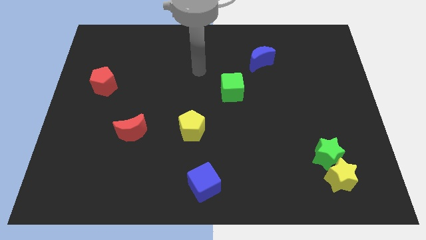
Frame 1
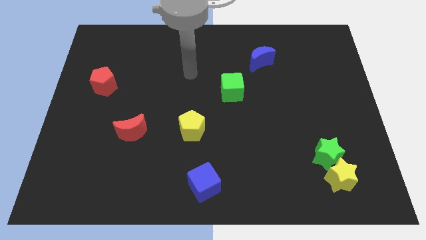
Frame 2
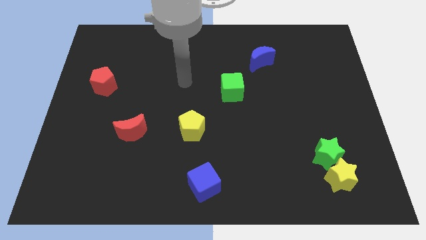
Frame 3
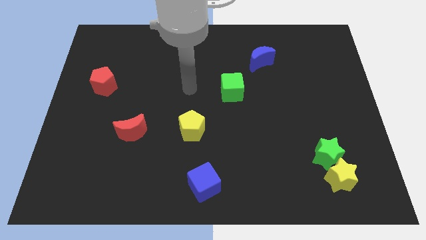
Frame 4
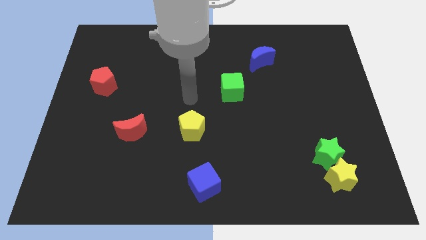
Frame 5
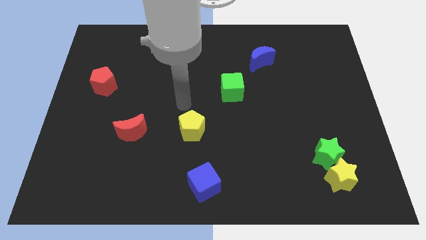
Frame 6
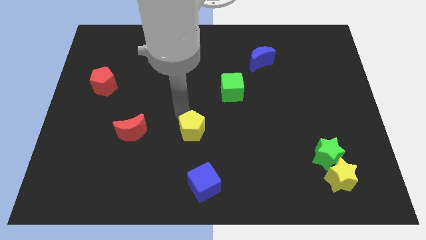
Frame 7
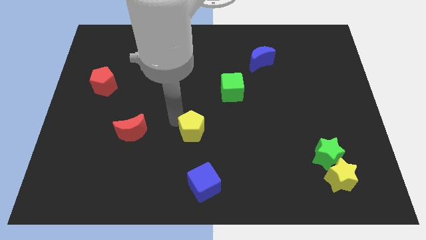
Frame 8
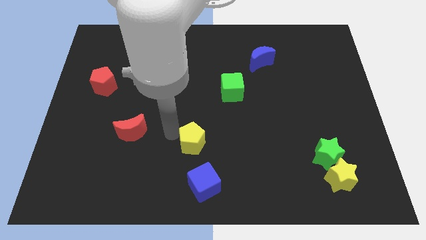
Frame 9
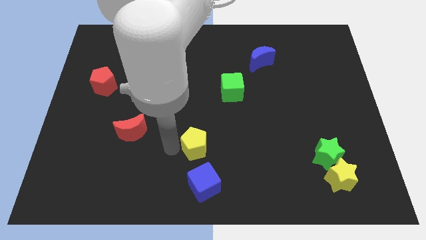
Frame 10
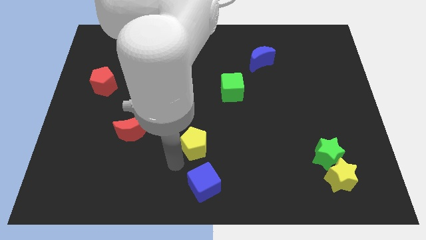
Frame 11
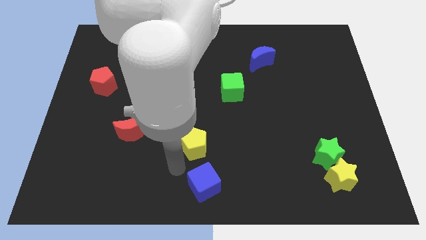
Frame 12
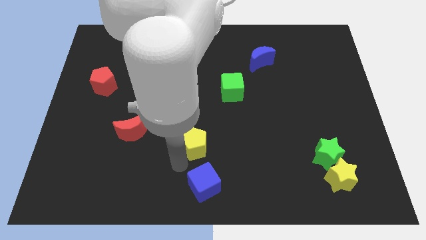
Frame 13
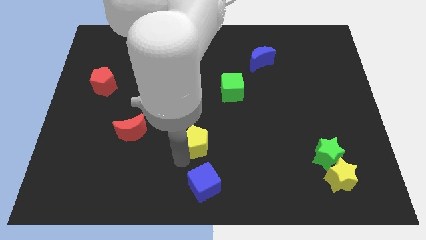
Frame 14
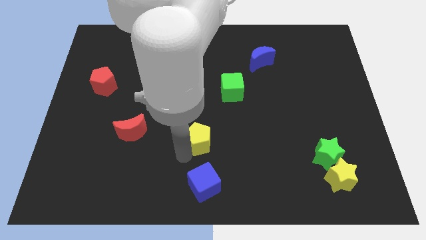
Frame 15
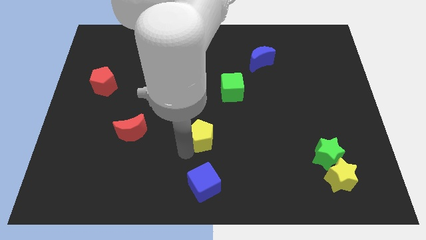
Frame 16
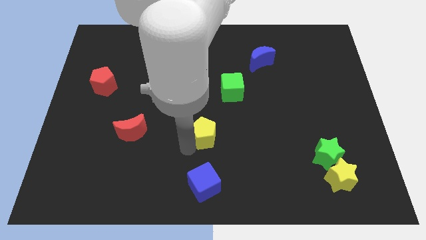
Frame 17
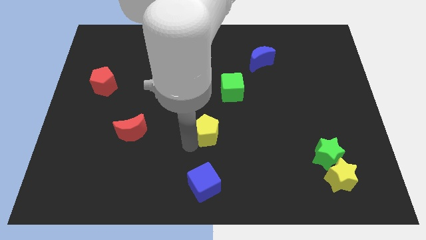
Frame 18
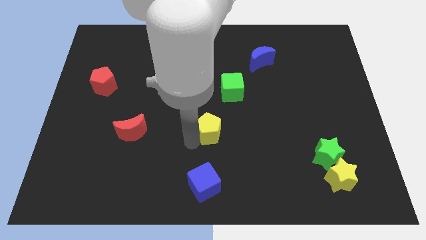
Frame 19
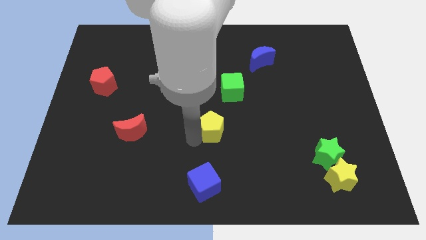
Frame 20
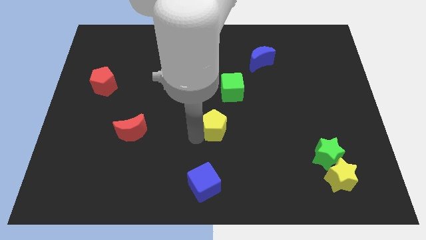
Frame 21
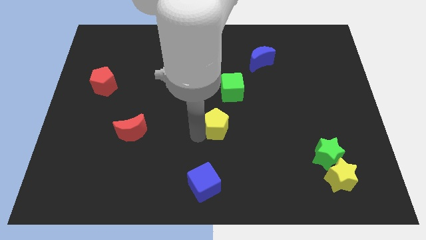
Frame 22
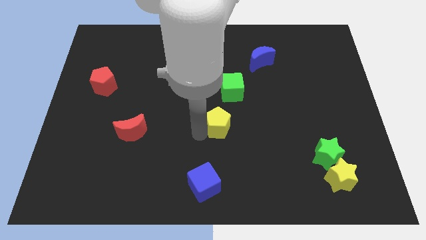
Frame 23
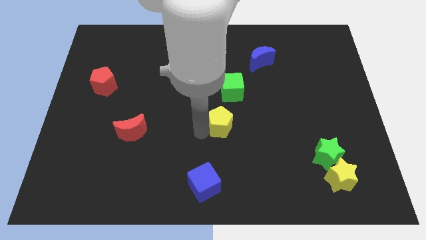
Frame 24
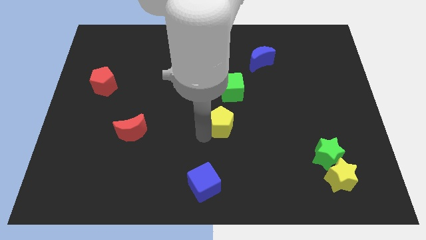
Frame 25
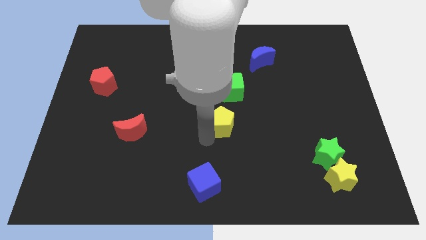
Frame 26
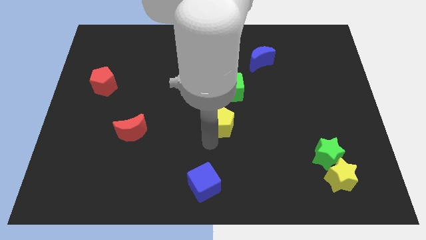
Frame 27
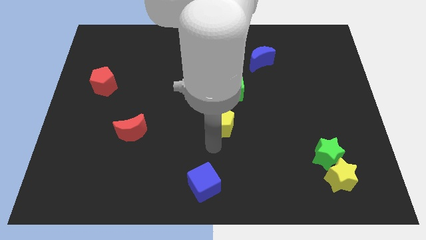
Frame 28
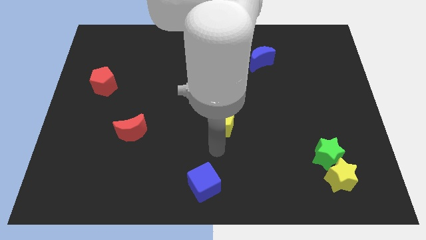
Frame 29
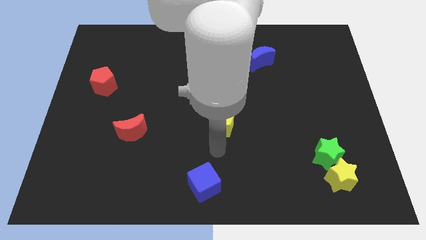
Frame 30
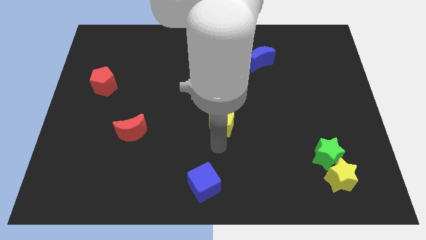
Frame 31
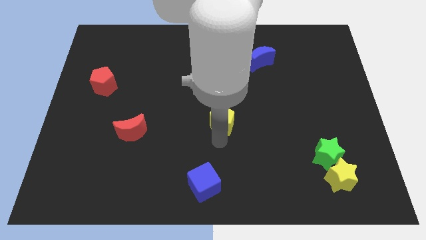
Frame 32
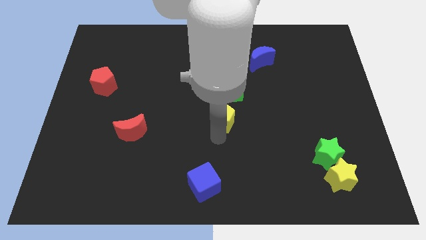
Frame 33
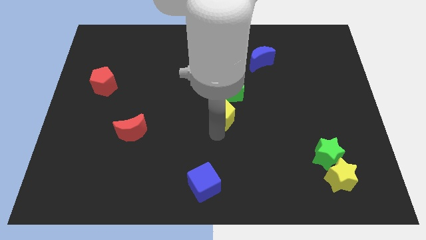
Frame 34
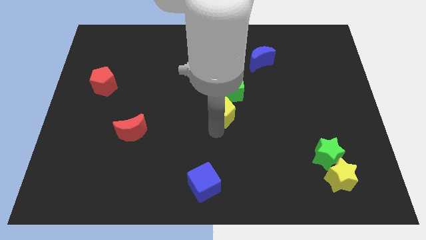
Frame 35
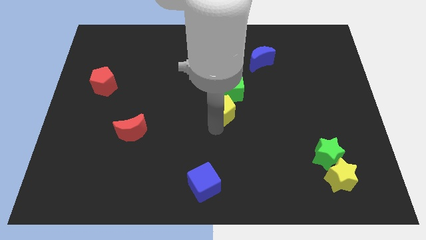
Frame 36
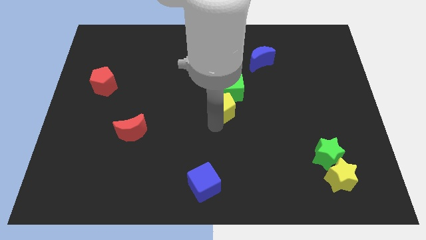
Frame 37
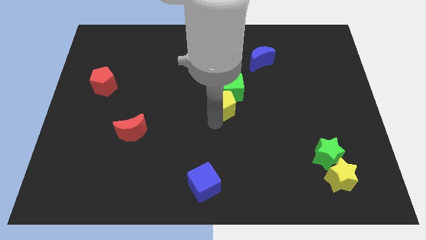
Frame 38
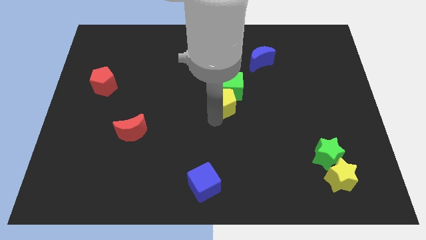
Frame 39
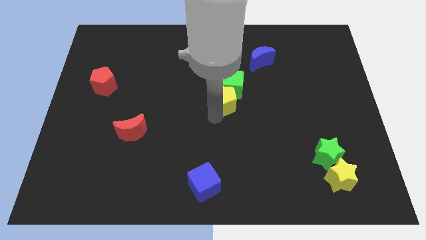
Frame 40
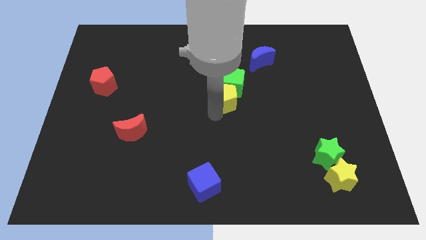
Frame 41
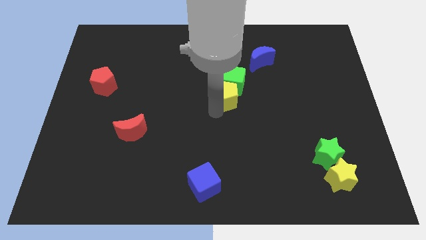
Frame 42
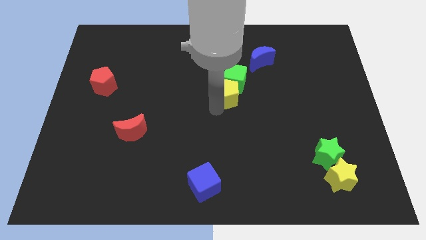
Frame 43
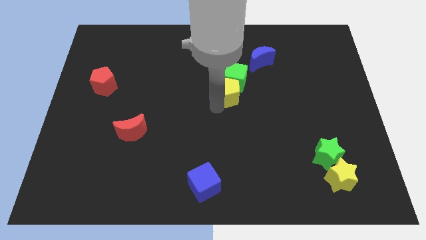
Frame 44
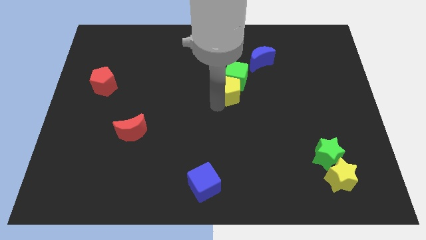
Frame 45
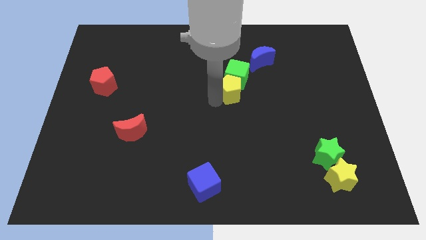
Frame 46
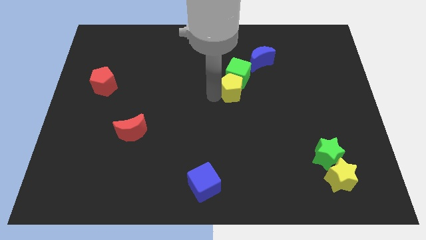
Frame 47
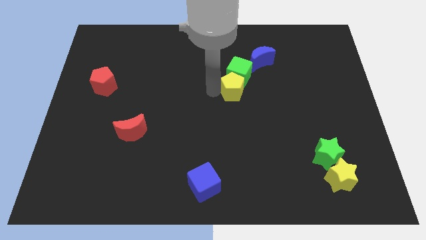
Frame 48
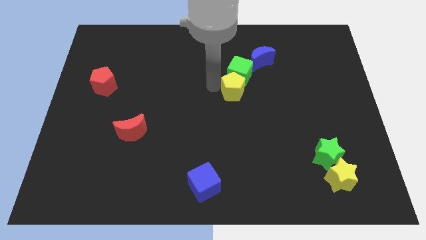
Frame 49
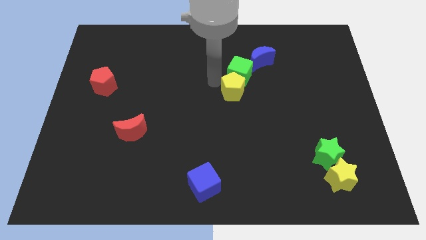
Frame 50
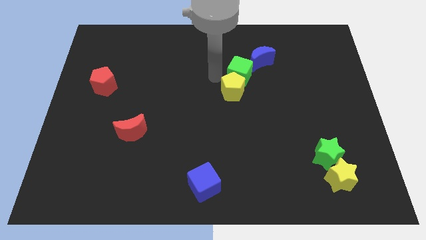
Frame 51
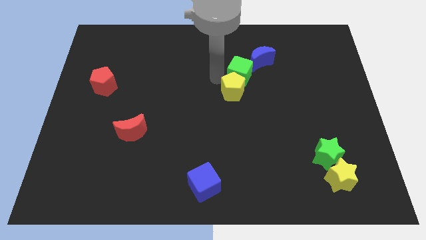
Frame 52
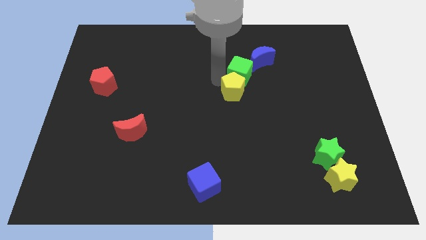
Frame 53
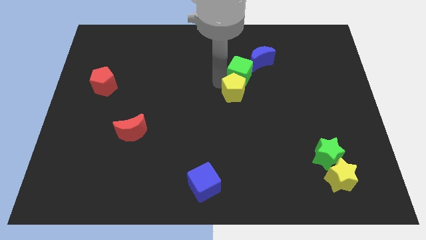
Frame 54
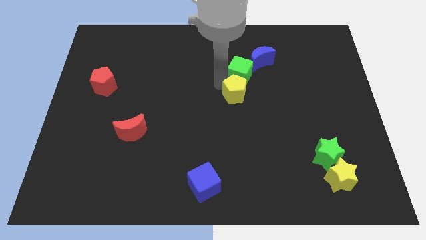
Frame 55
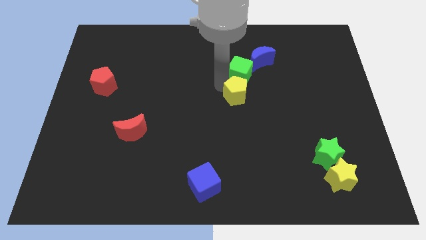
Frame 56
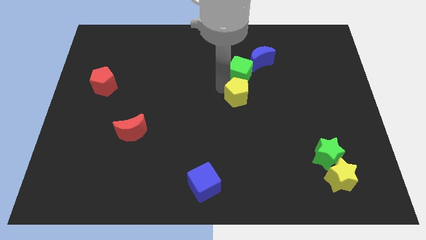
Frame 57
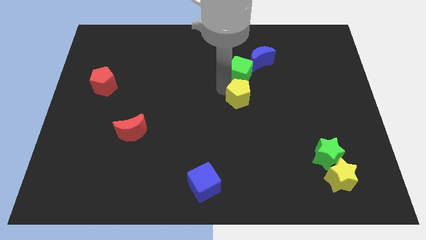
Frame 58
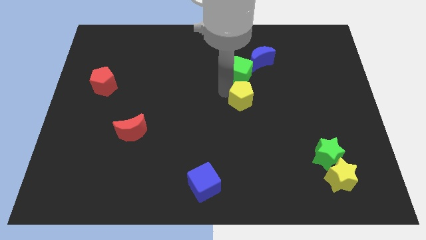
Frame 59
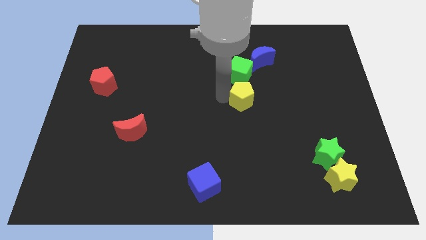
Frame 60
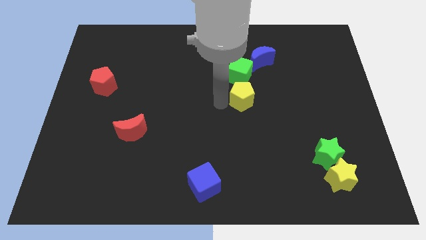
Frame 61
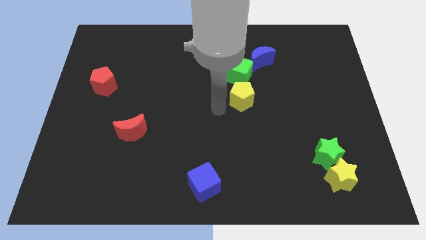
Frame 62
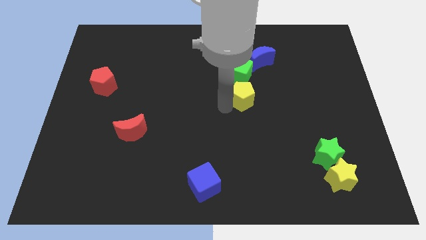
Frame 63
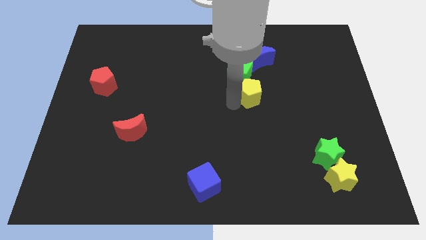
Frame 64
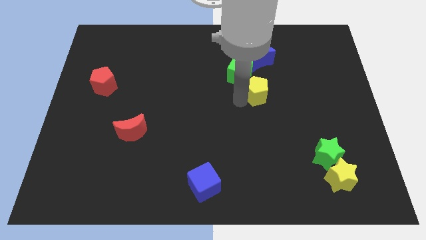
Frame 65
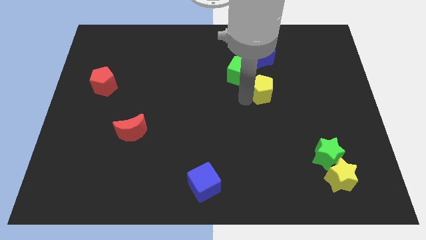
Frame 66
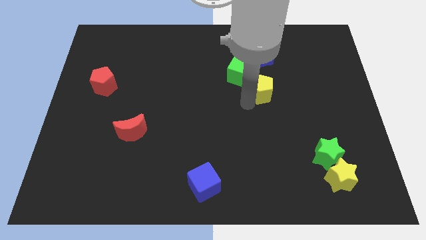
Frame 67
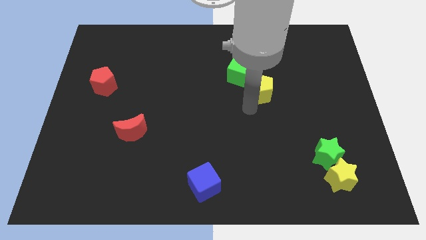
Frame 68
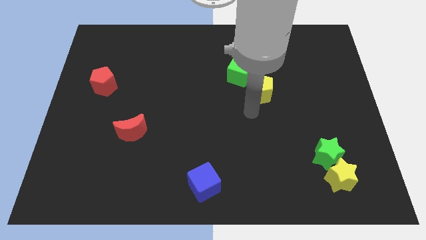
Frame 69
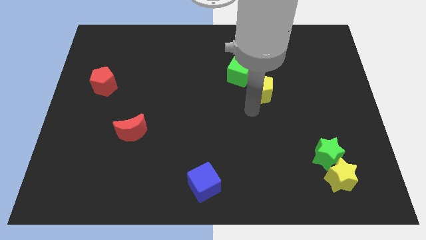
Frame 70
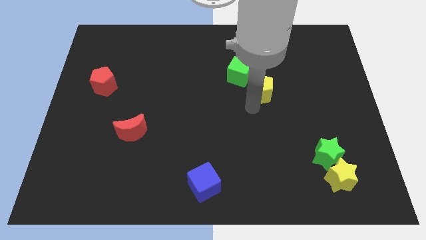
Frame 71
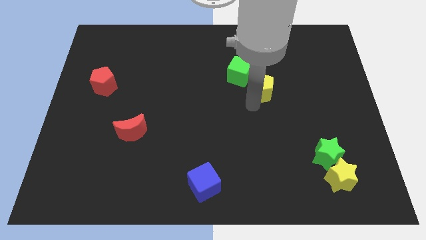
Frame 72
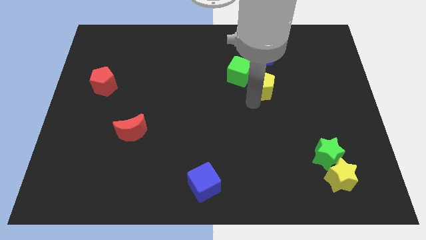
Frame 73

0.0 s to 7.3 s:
move the yellow pentagon upwards and right diagonally

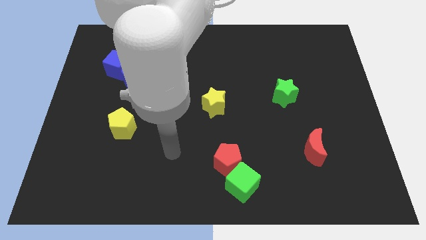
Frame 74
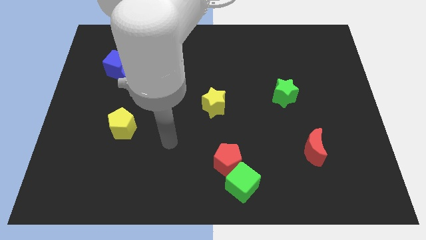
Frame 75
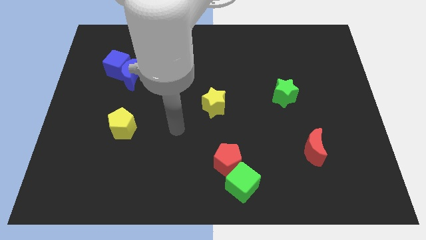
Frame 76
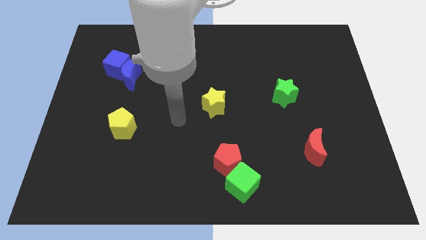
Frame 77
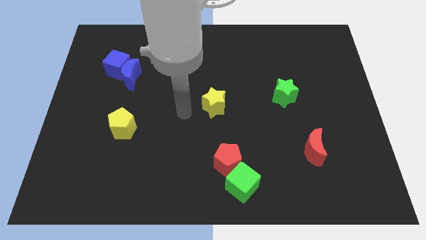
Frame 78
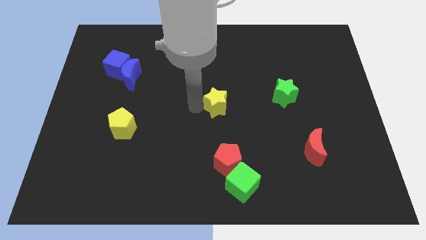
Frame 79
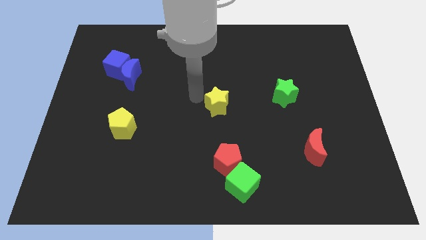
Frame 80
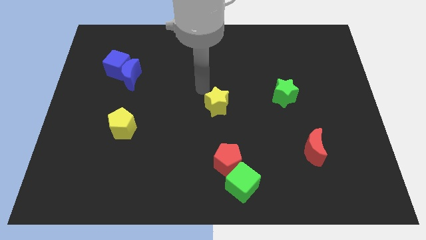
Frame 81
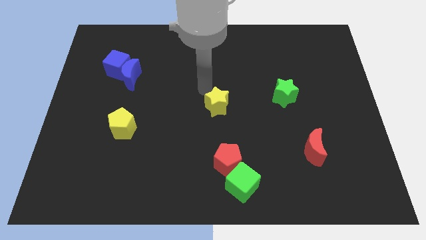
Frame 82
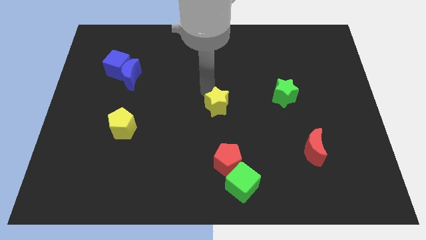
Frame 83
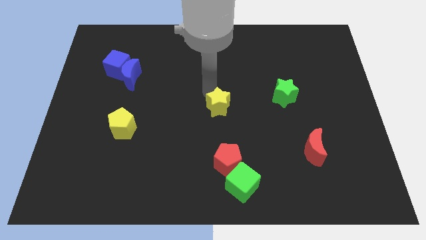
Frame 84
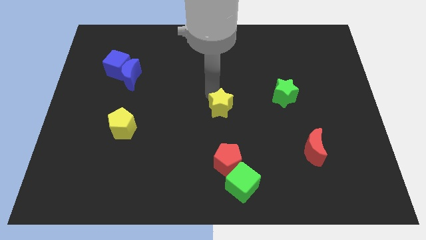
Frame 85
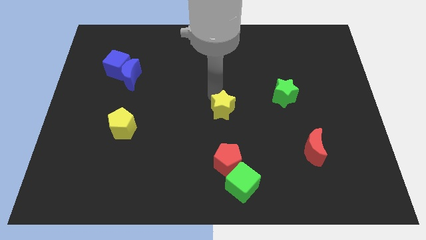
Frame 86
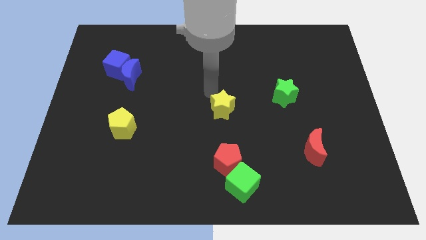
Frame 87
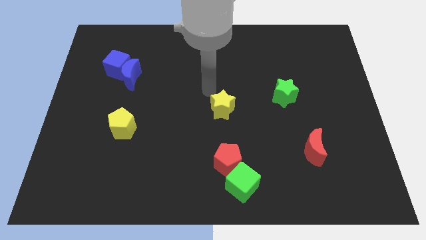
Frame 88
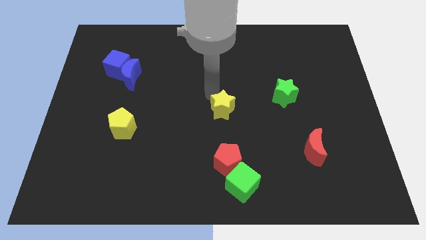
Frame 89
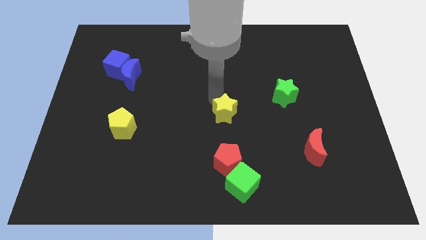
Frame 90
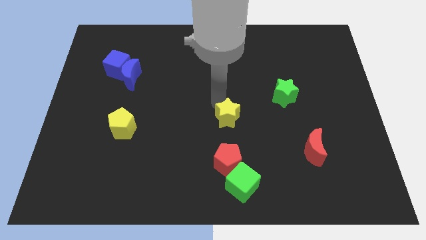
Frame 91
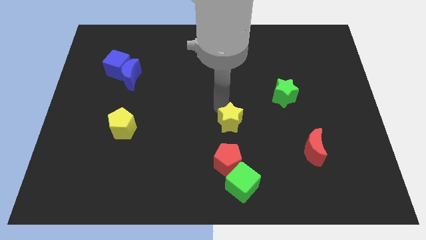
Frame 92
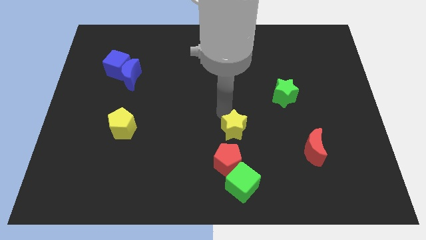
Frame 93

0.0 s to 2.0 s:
slide the yellow star a bit downwards and right
